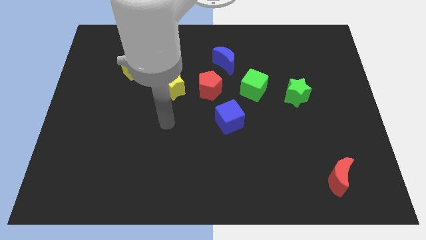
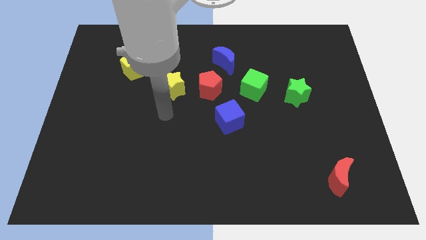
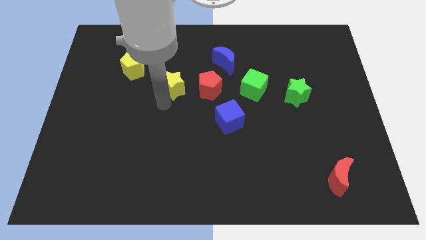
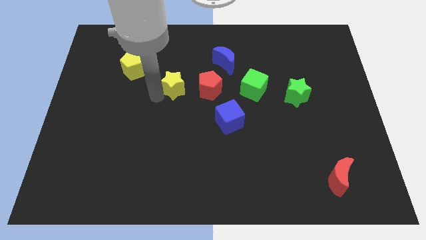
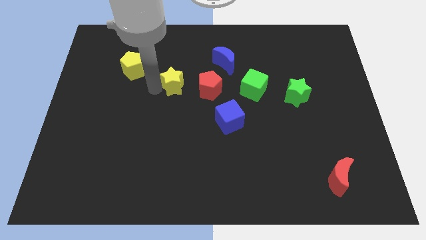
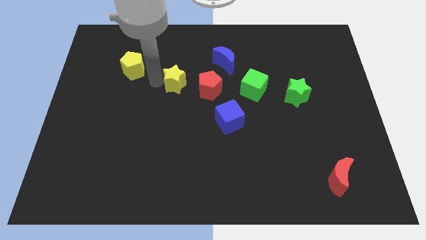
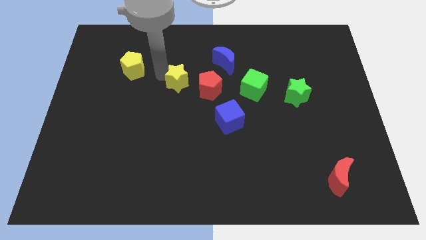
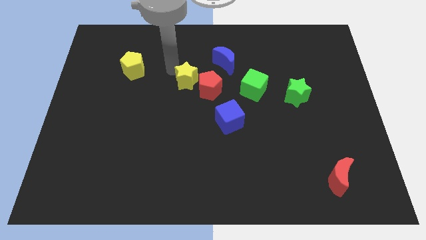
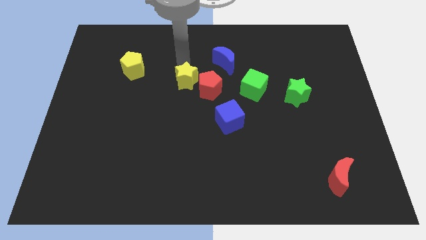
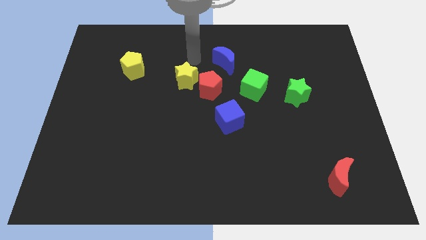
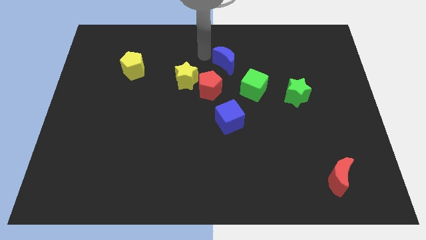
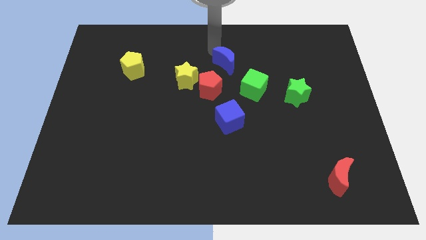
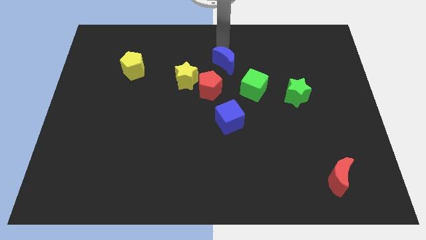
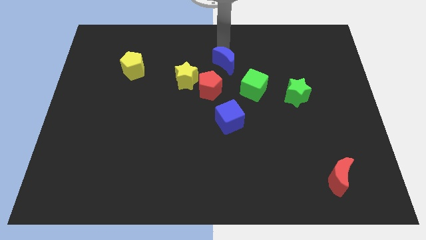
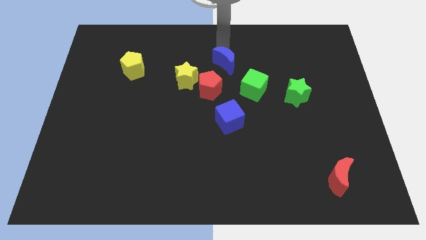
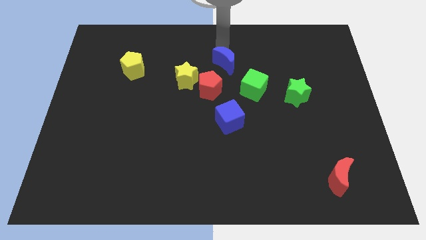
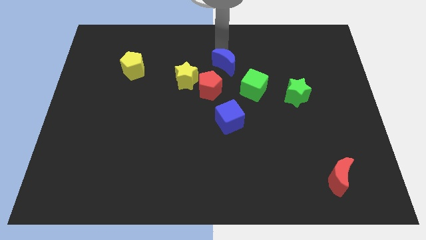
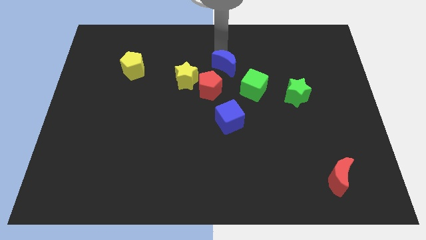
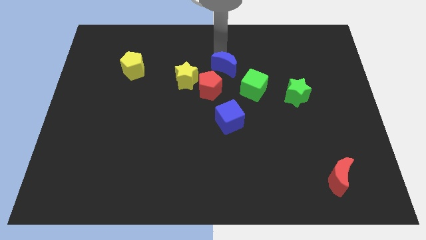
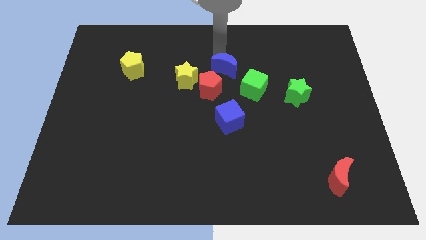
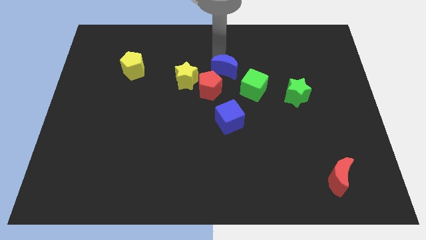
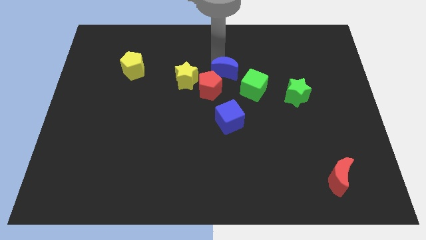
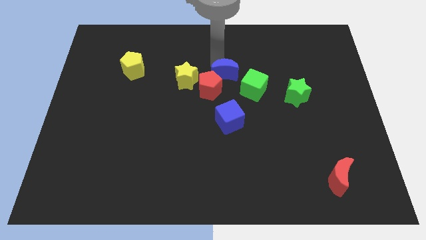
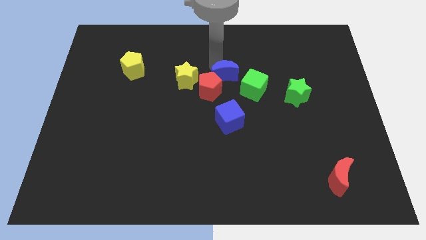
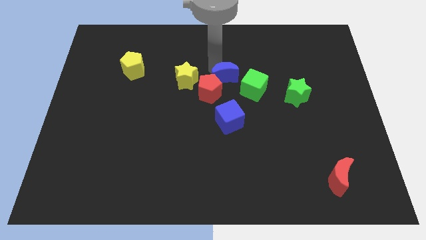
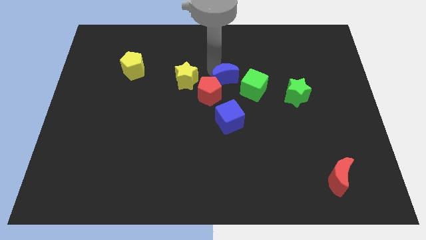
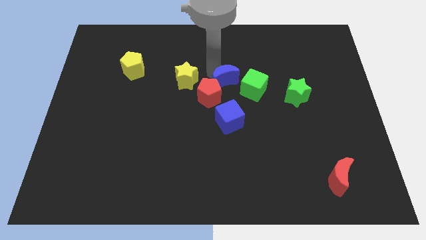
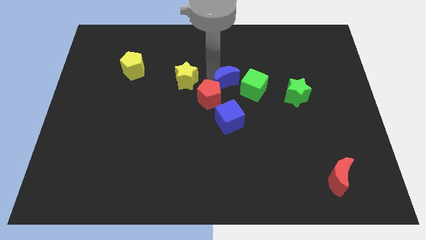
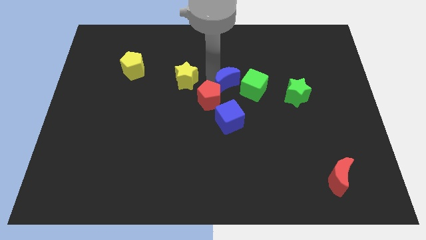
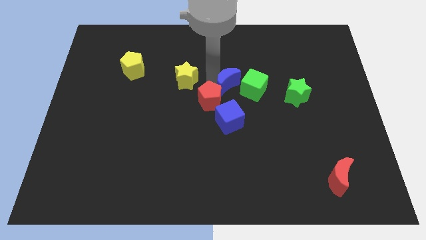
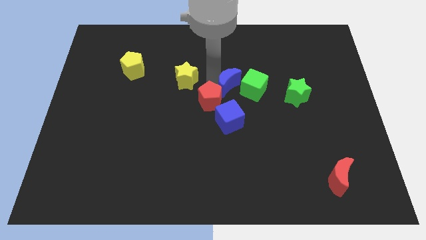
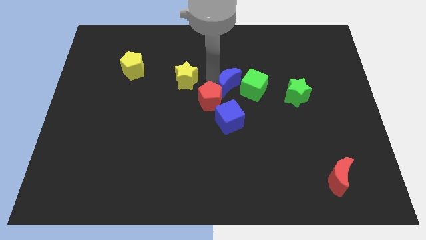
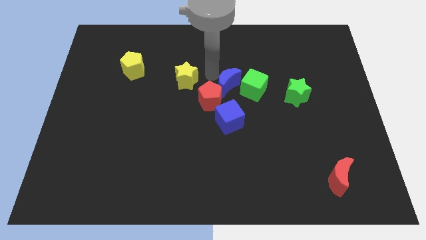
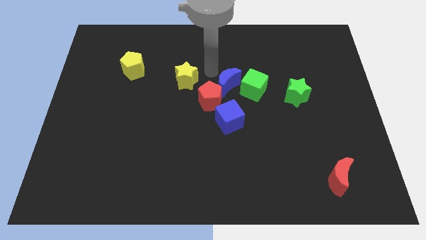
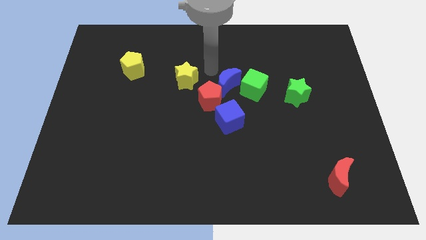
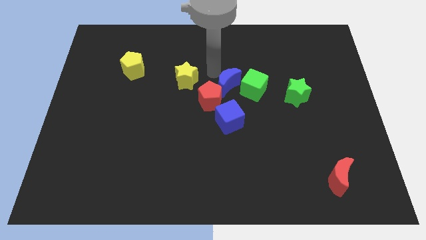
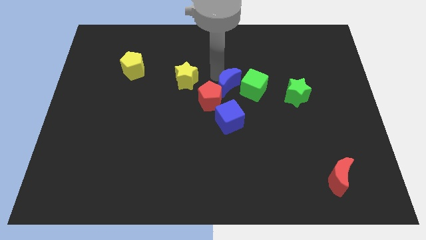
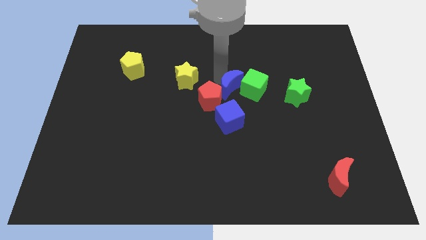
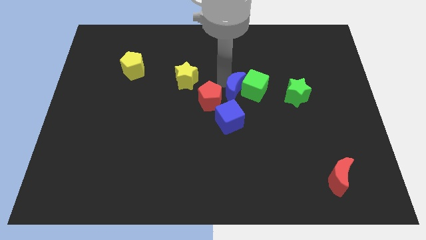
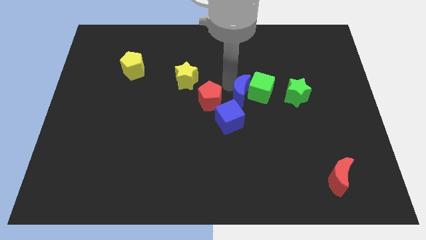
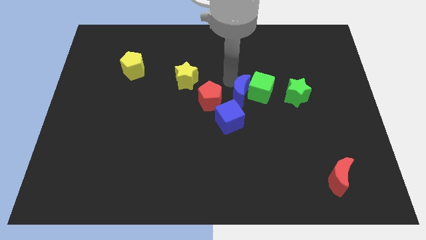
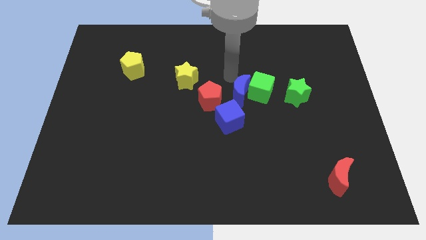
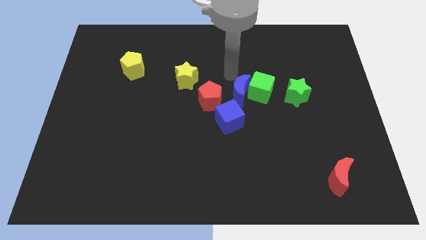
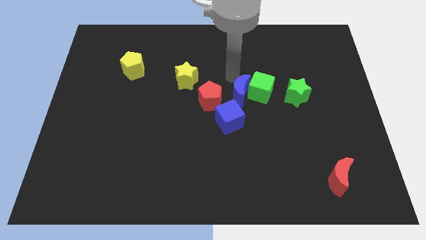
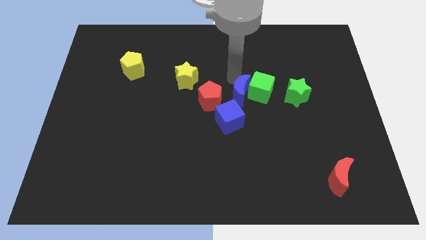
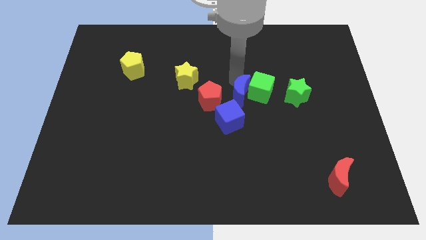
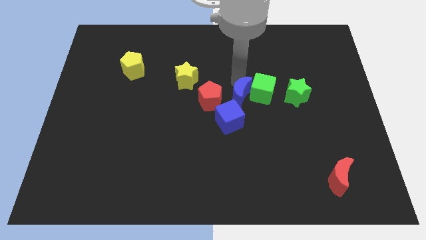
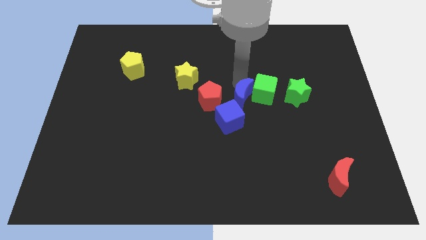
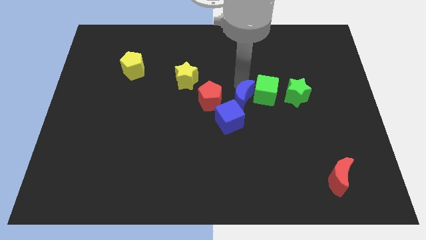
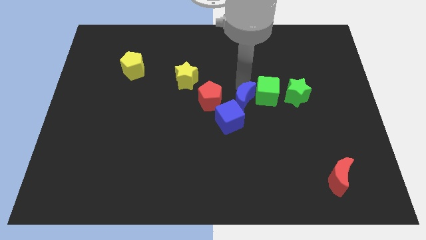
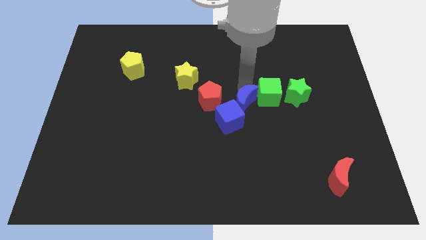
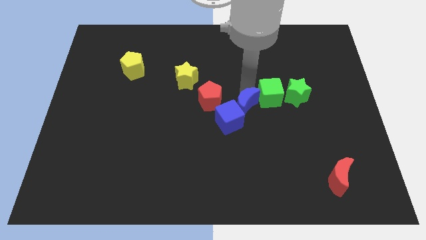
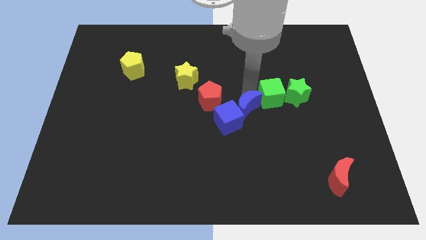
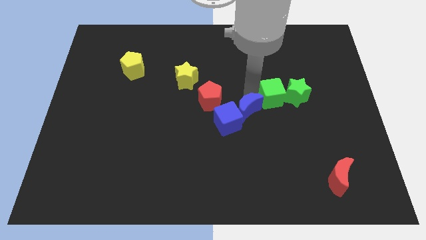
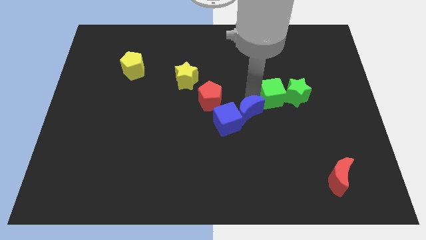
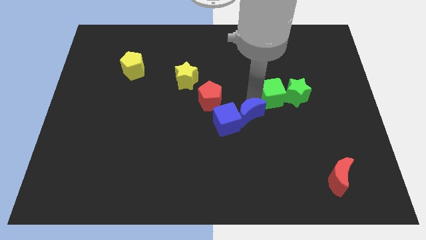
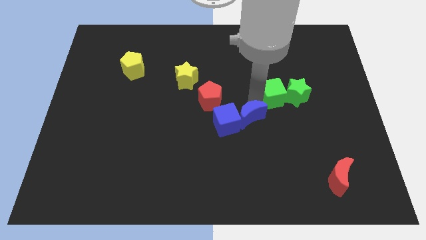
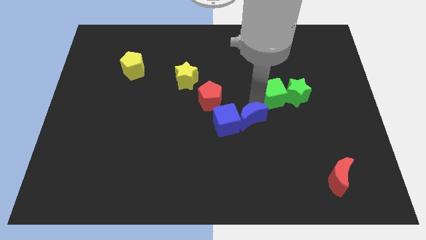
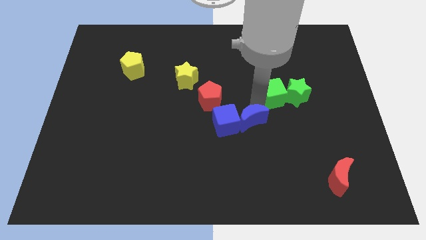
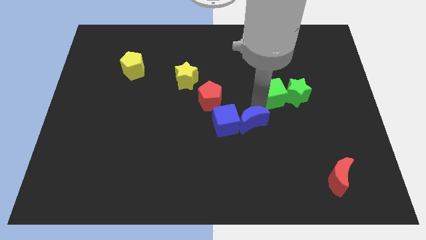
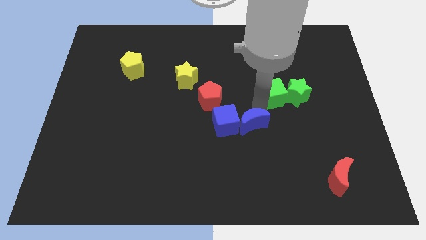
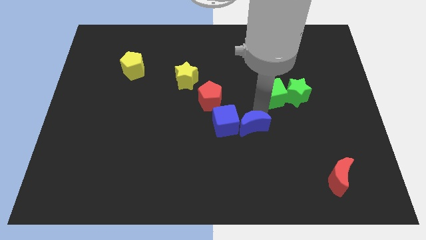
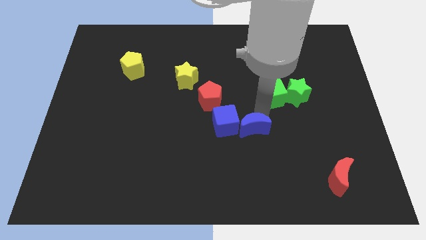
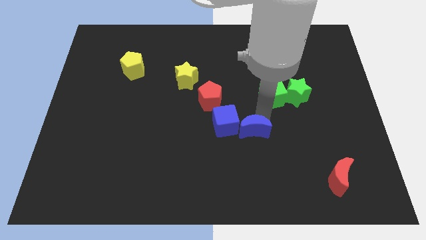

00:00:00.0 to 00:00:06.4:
slide the blue moon downwards

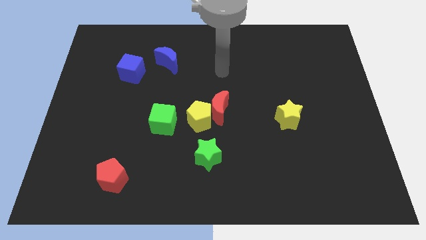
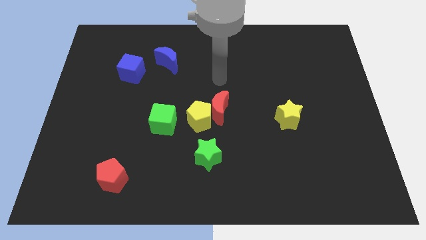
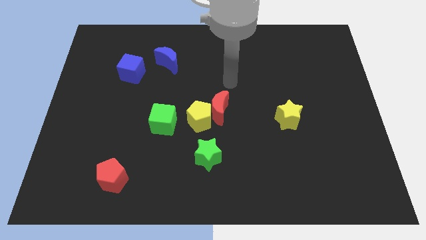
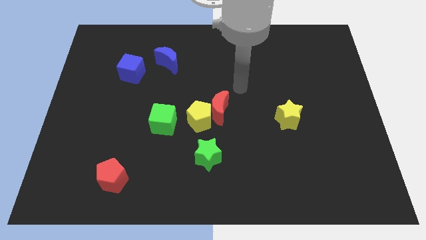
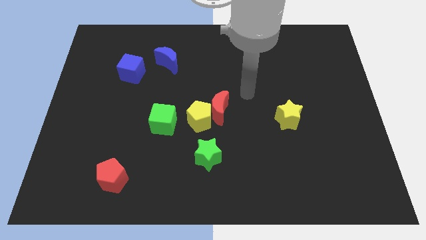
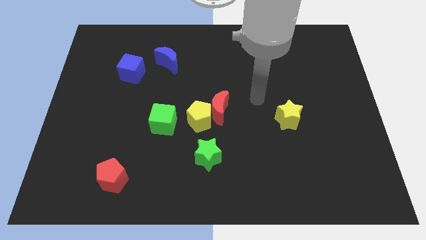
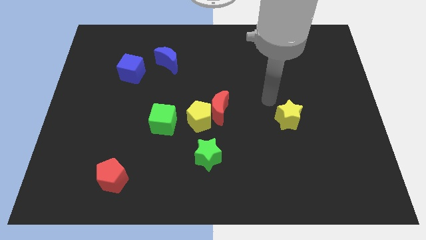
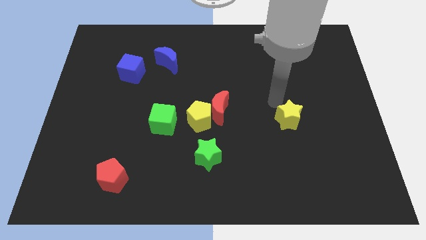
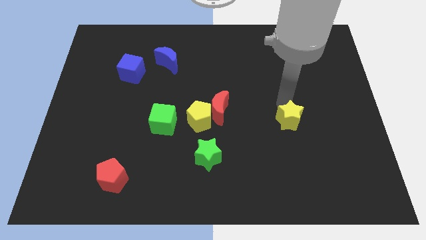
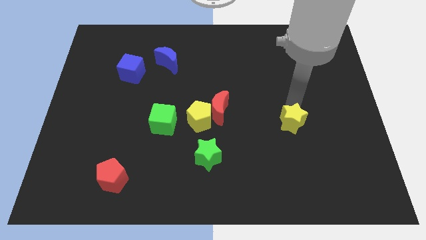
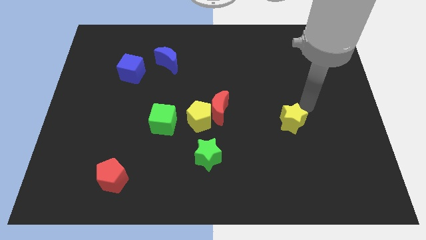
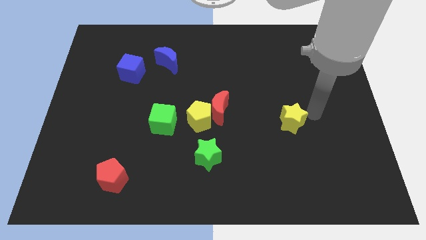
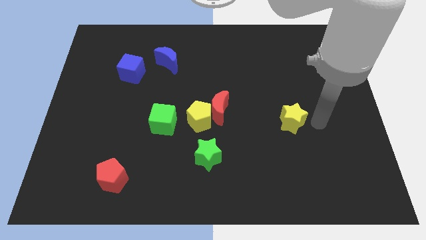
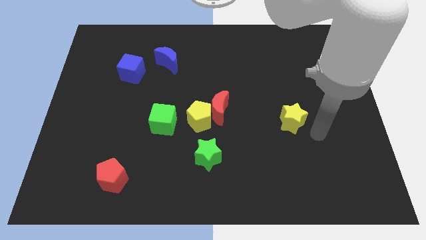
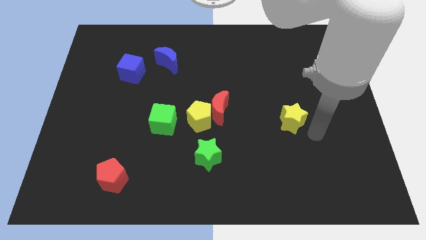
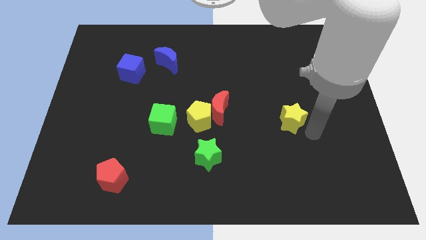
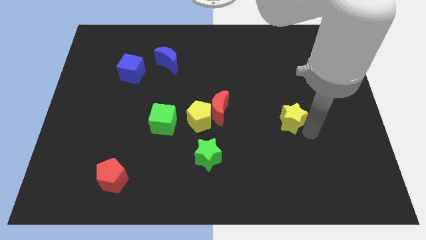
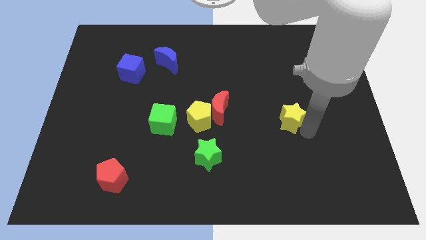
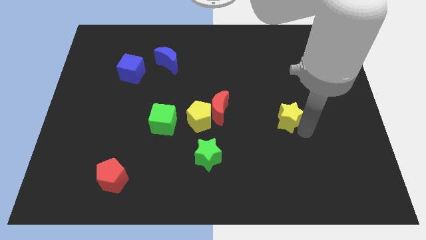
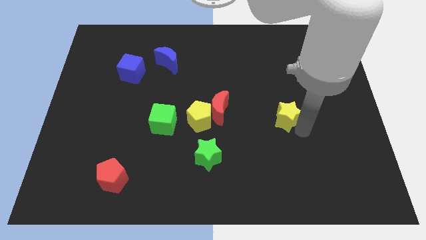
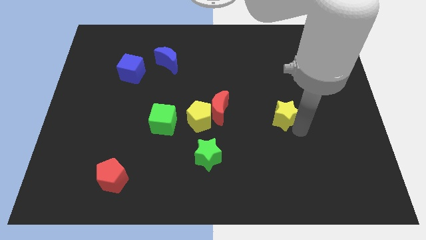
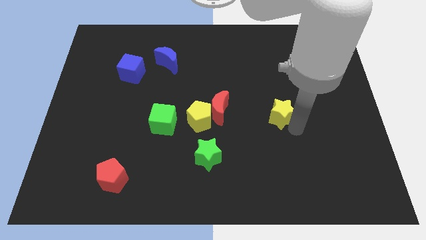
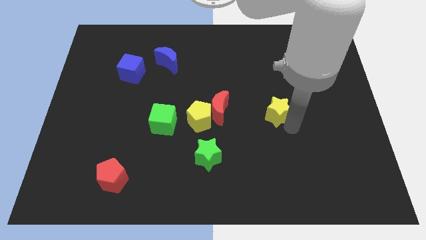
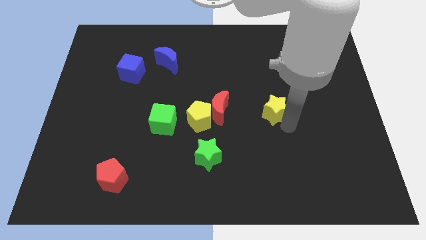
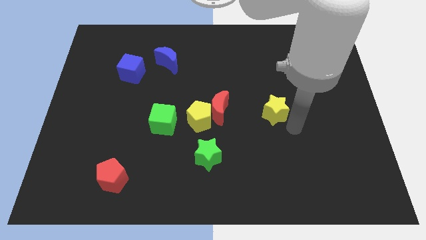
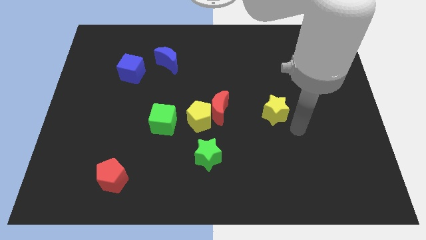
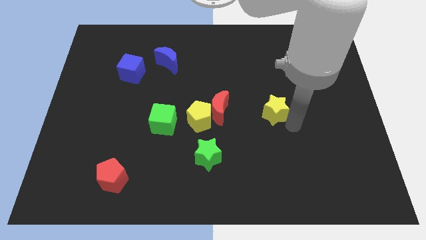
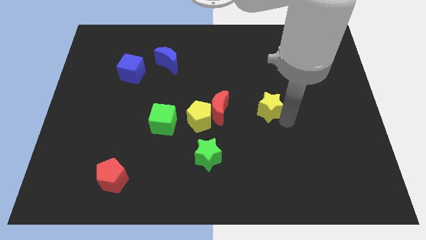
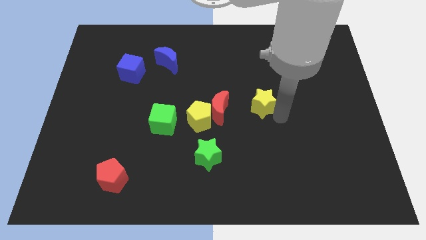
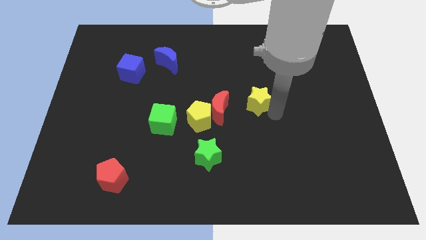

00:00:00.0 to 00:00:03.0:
slightly push the yellow star upwards and left
